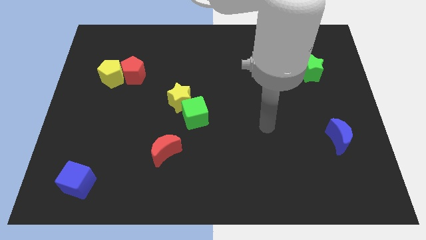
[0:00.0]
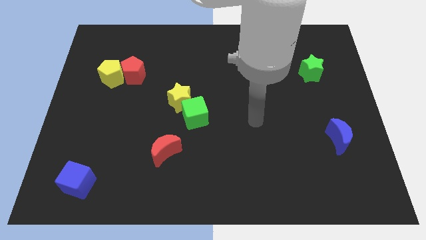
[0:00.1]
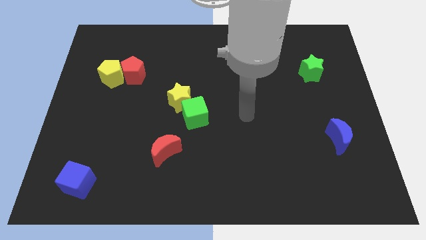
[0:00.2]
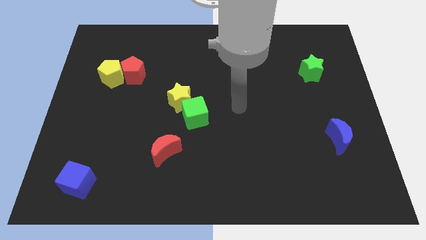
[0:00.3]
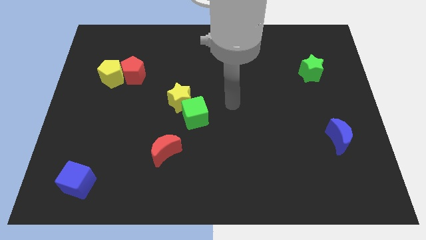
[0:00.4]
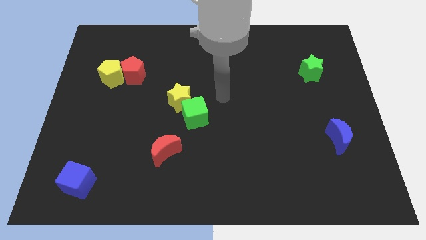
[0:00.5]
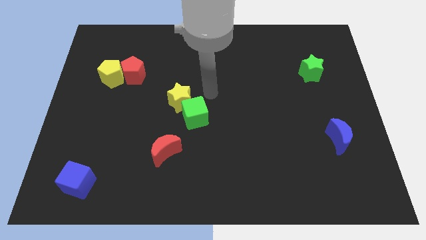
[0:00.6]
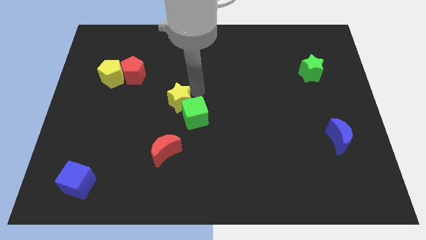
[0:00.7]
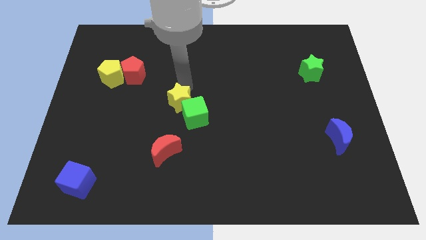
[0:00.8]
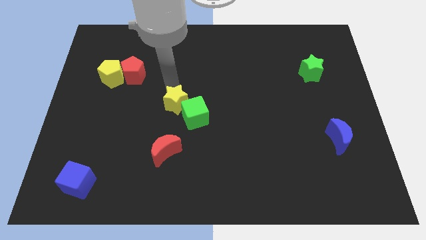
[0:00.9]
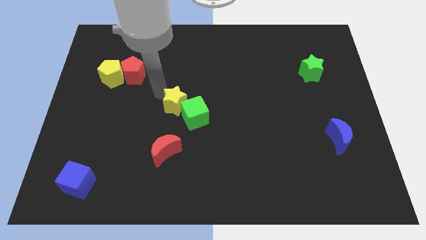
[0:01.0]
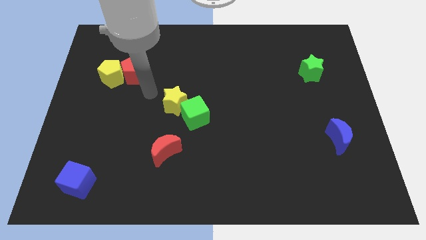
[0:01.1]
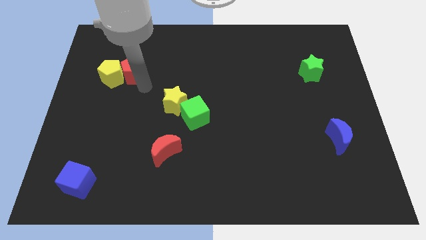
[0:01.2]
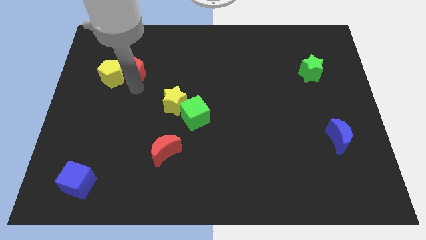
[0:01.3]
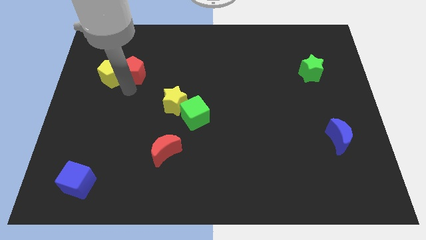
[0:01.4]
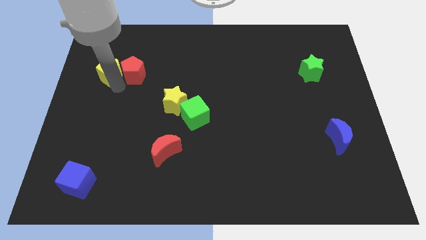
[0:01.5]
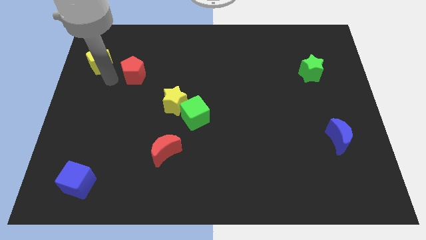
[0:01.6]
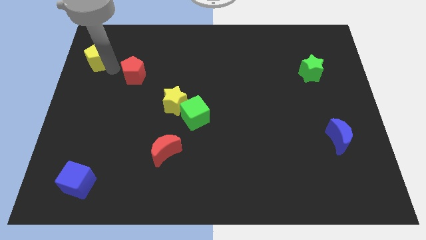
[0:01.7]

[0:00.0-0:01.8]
pull the red pentagon apart from the yellow pentagon

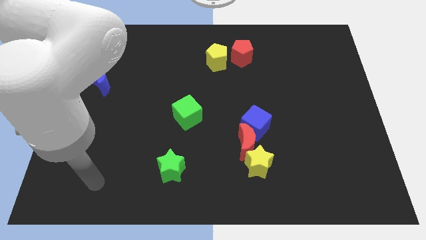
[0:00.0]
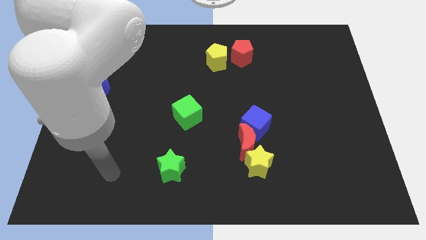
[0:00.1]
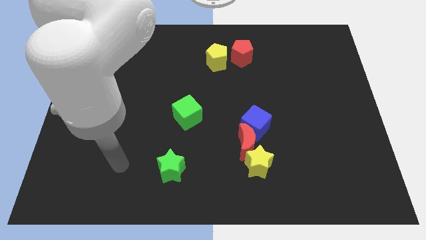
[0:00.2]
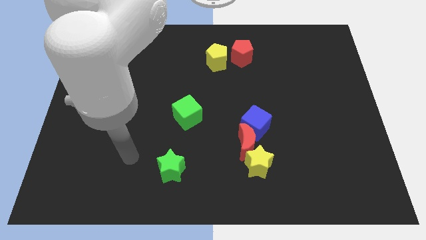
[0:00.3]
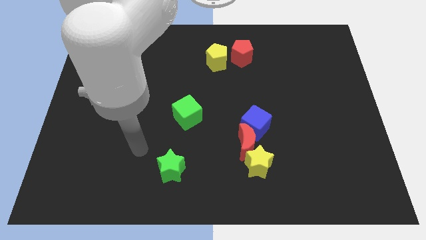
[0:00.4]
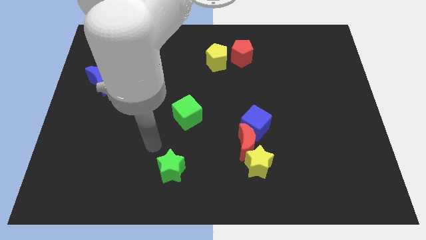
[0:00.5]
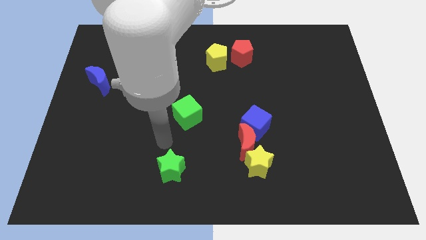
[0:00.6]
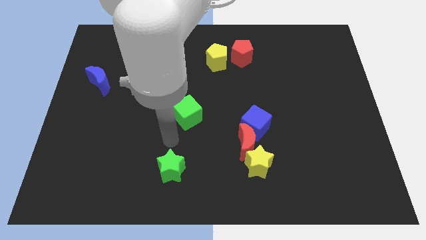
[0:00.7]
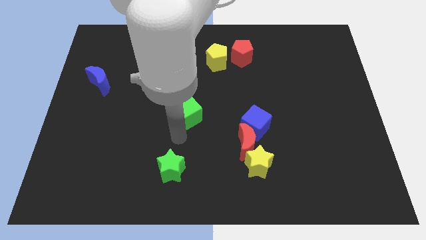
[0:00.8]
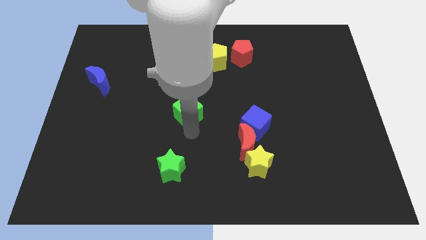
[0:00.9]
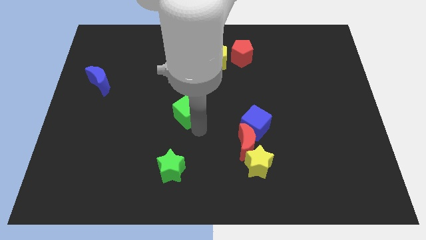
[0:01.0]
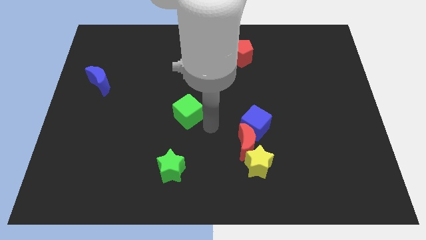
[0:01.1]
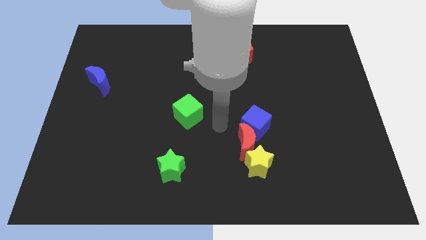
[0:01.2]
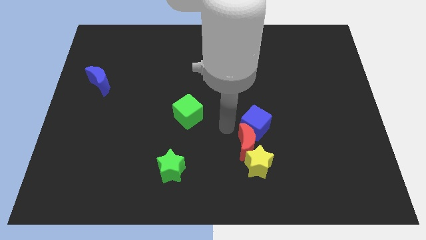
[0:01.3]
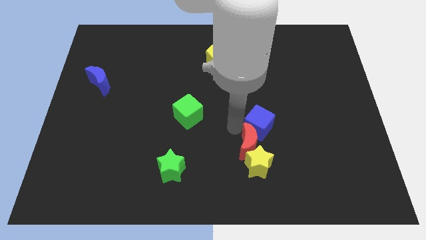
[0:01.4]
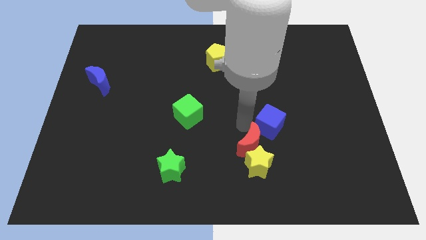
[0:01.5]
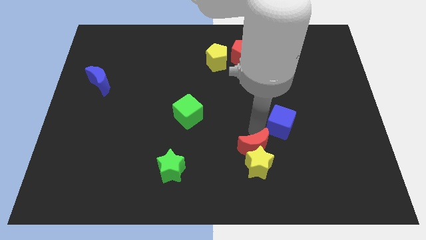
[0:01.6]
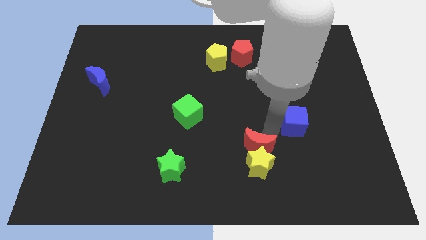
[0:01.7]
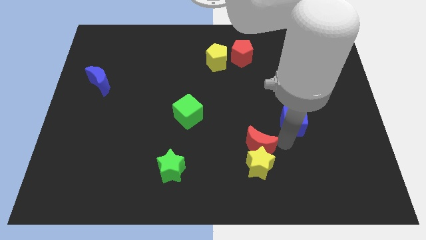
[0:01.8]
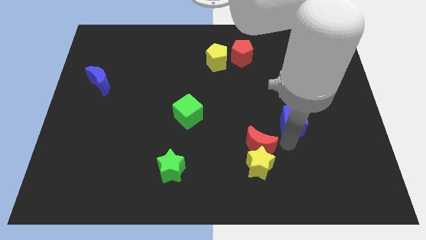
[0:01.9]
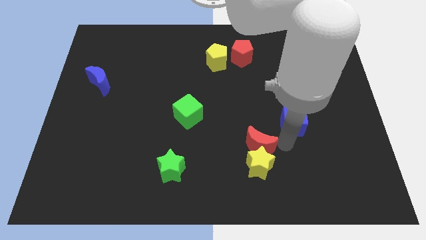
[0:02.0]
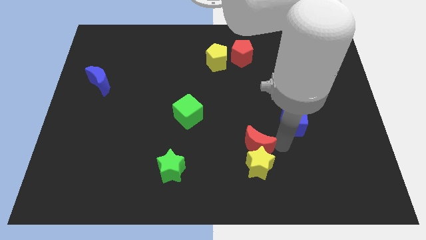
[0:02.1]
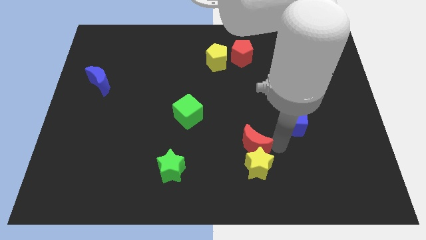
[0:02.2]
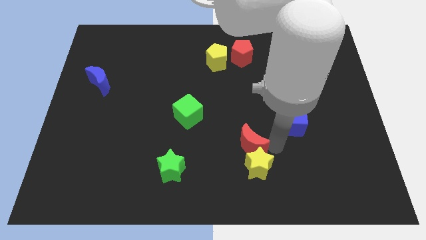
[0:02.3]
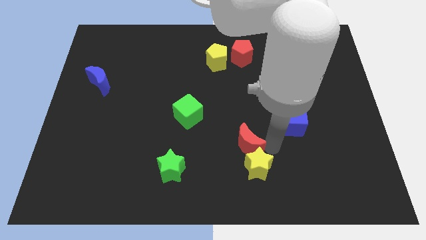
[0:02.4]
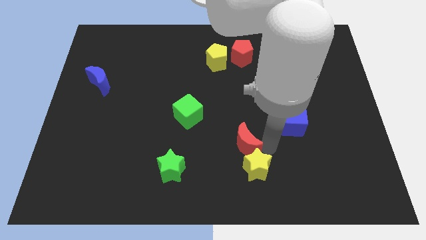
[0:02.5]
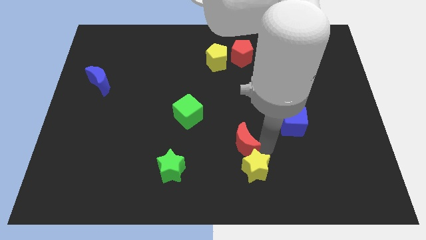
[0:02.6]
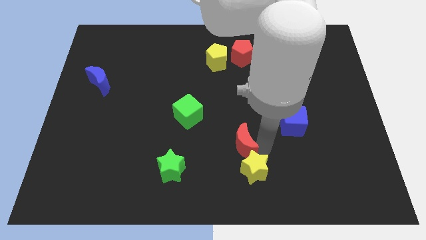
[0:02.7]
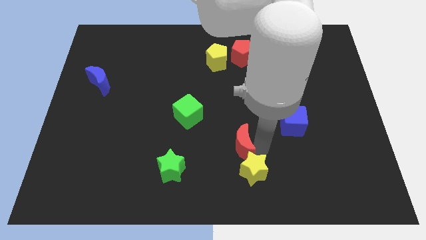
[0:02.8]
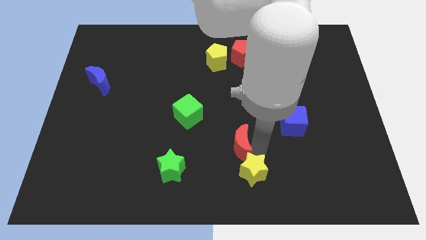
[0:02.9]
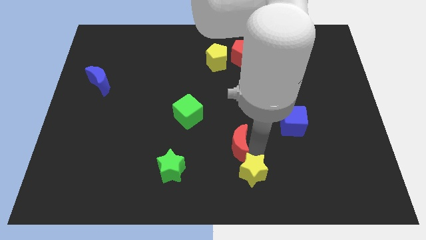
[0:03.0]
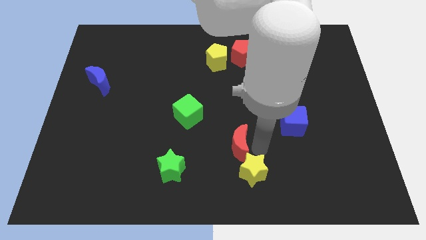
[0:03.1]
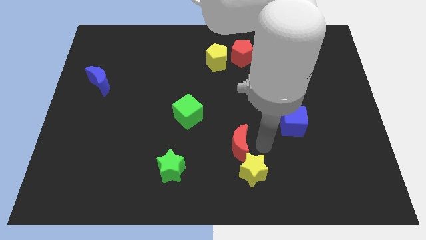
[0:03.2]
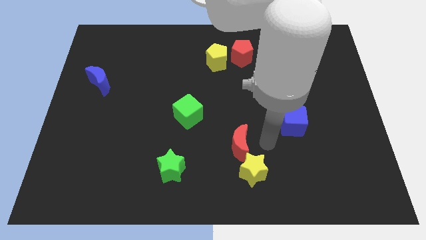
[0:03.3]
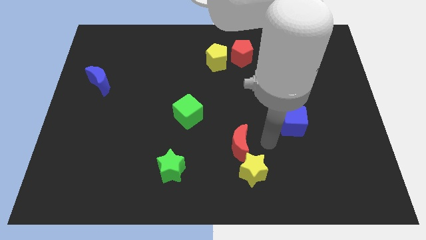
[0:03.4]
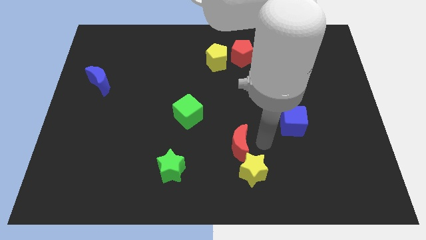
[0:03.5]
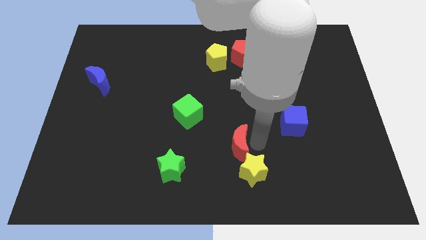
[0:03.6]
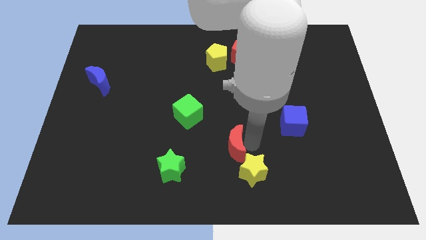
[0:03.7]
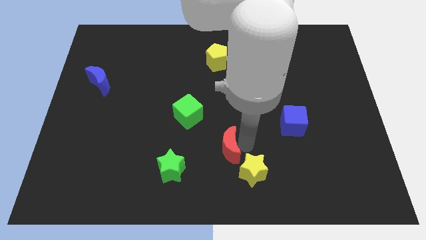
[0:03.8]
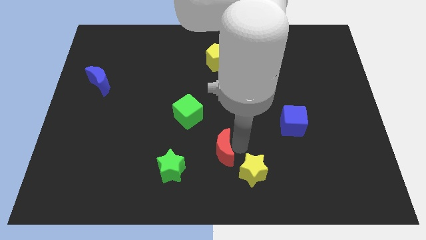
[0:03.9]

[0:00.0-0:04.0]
move the red moon away from the blue cube and yellow star

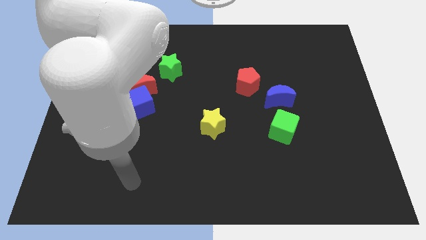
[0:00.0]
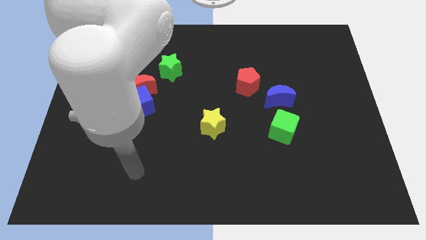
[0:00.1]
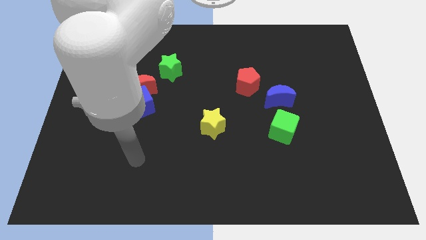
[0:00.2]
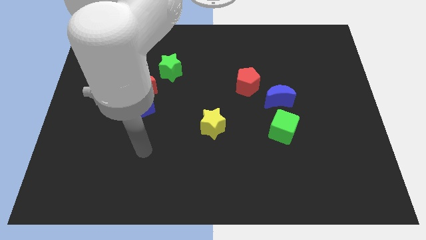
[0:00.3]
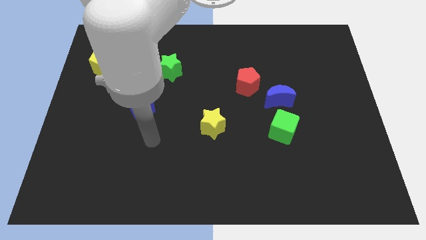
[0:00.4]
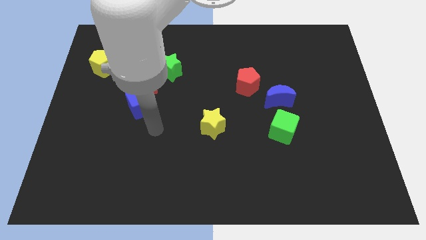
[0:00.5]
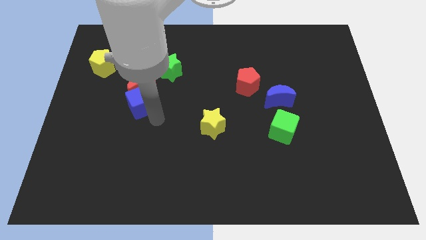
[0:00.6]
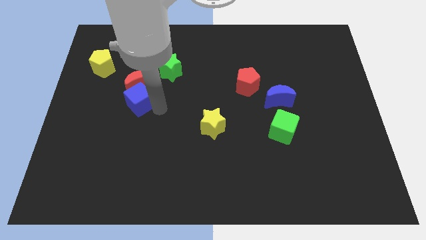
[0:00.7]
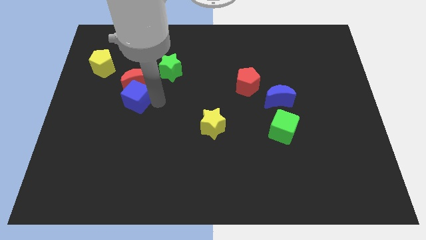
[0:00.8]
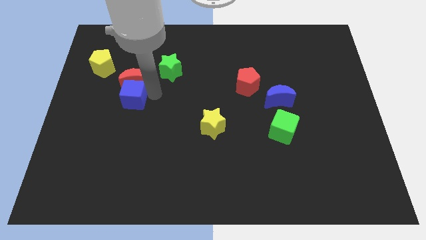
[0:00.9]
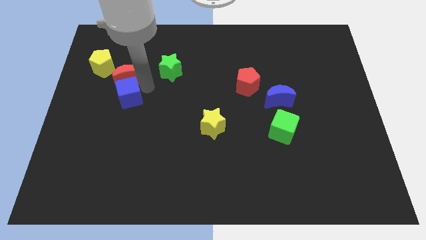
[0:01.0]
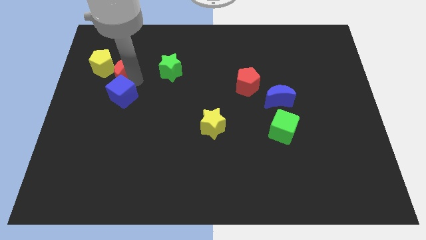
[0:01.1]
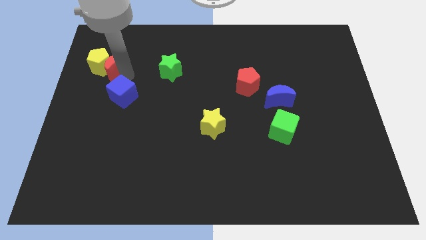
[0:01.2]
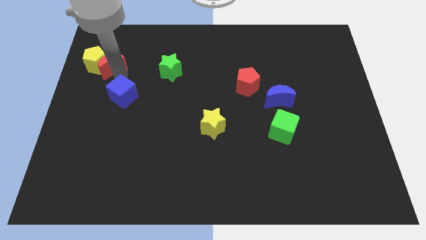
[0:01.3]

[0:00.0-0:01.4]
pull the blue cube apart from the red moon

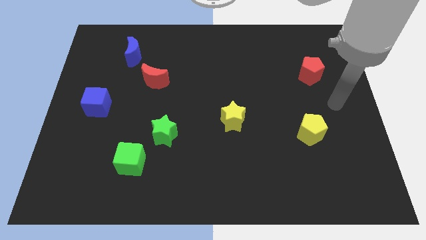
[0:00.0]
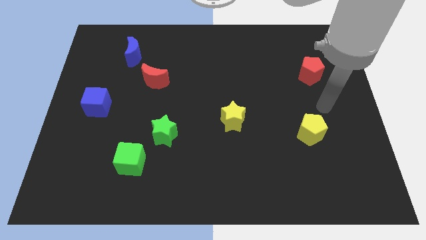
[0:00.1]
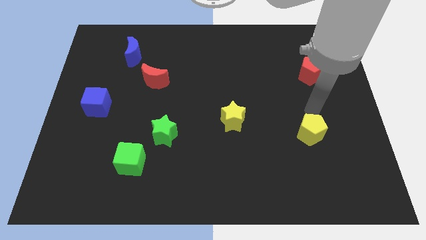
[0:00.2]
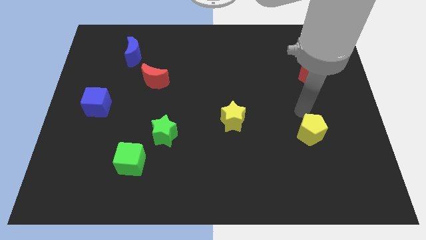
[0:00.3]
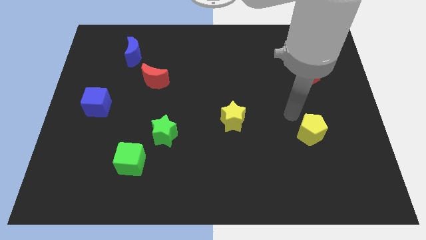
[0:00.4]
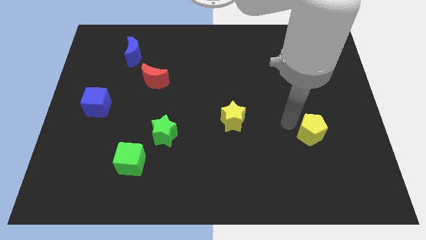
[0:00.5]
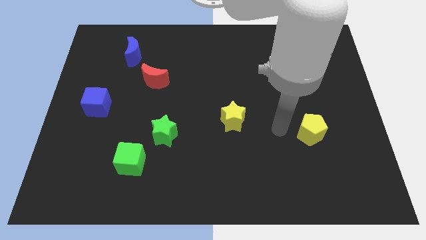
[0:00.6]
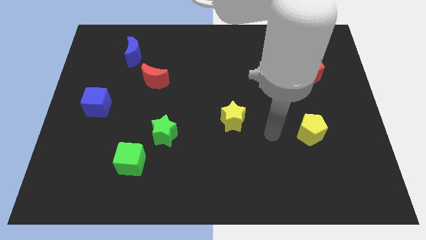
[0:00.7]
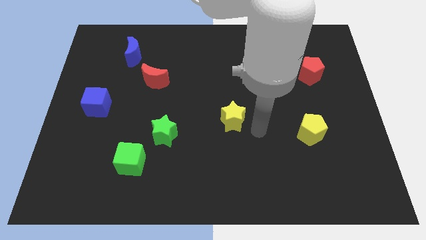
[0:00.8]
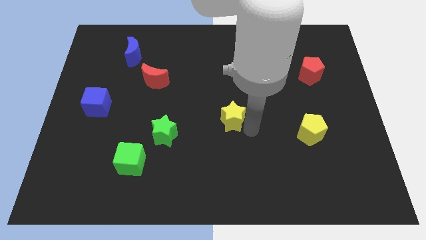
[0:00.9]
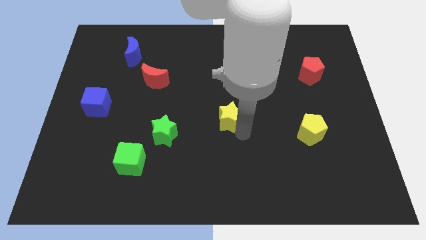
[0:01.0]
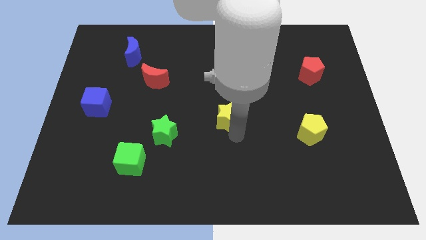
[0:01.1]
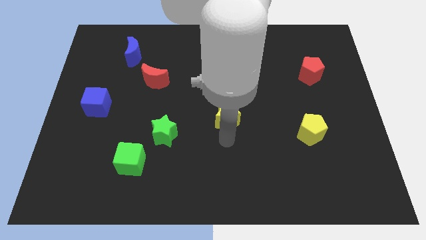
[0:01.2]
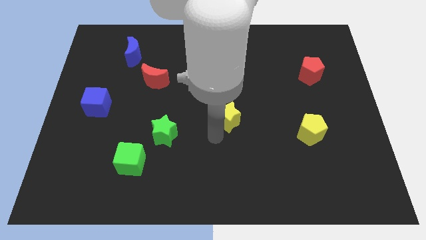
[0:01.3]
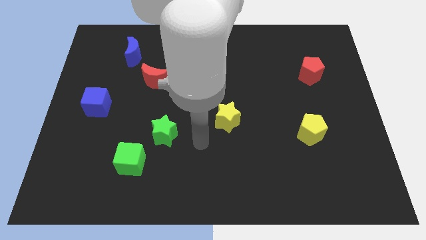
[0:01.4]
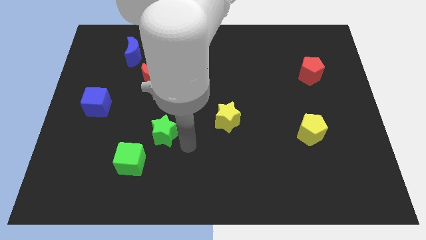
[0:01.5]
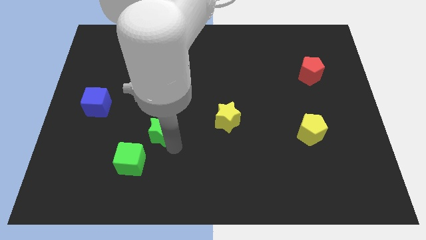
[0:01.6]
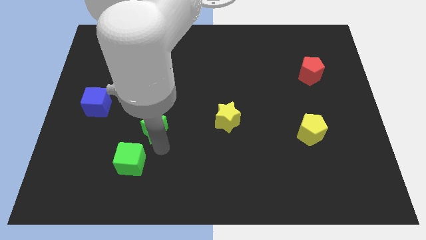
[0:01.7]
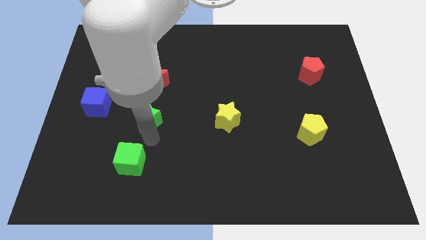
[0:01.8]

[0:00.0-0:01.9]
move the green cube away from the green star
